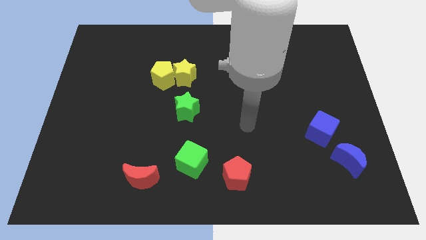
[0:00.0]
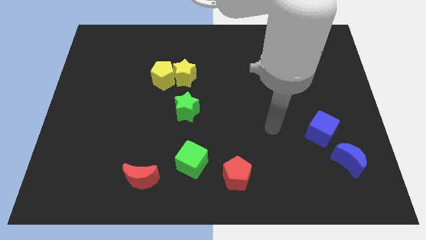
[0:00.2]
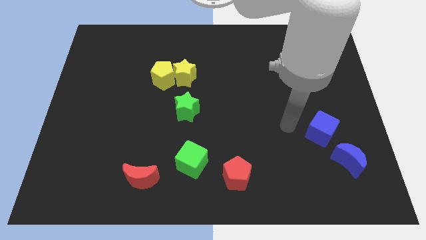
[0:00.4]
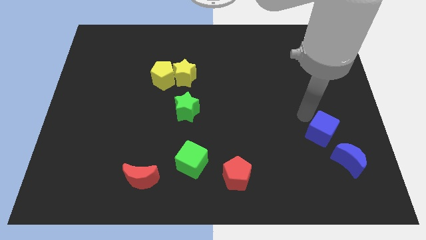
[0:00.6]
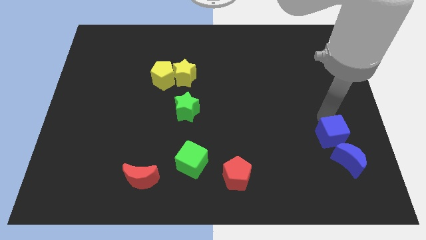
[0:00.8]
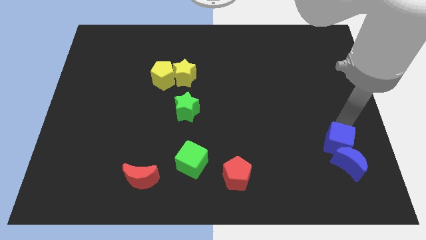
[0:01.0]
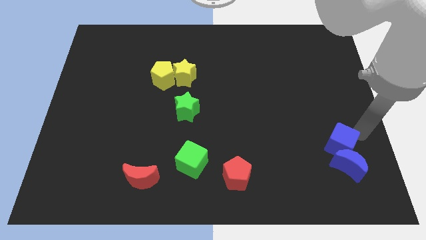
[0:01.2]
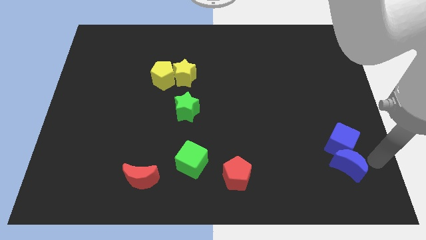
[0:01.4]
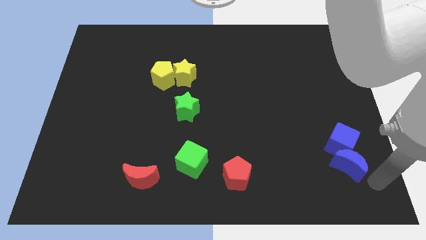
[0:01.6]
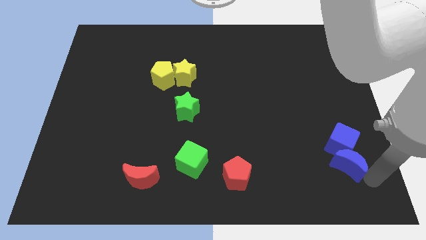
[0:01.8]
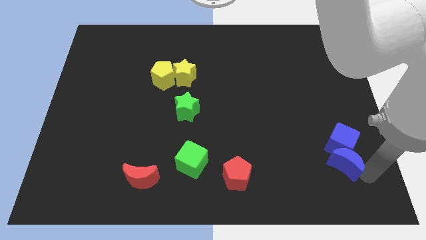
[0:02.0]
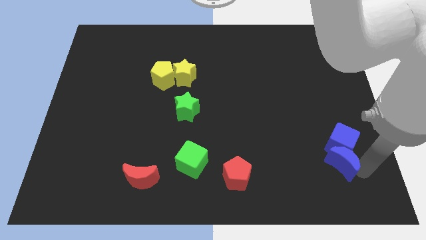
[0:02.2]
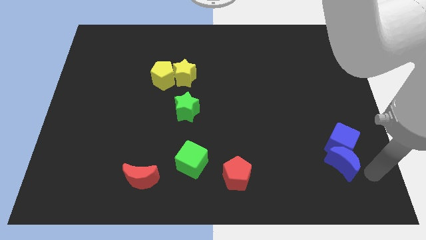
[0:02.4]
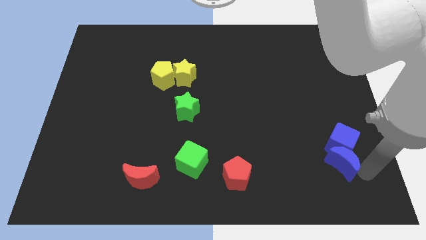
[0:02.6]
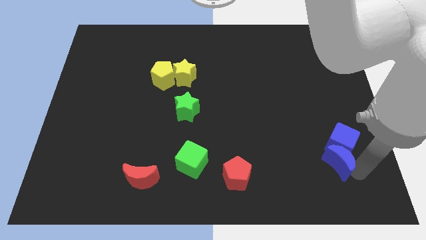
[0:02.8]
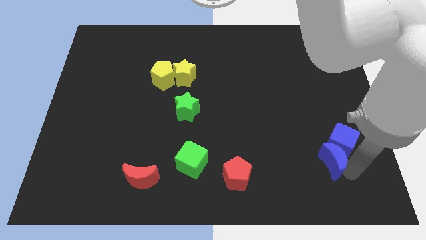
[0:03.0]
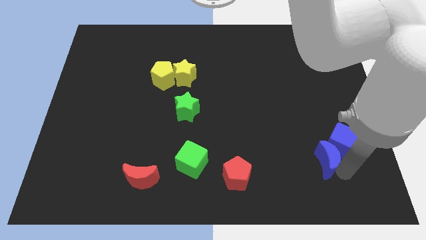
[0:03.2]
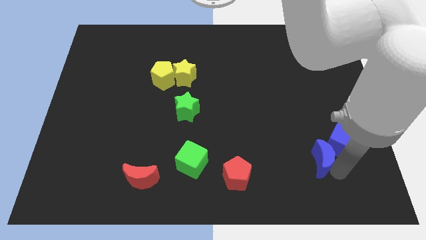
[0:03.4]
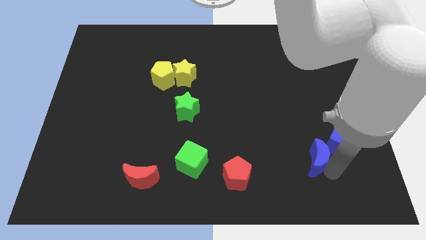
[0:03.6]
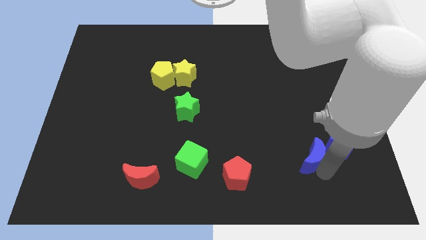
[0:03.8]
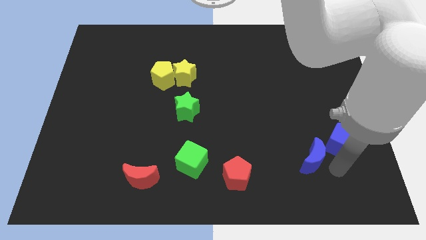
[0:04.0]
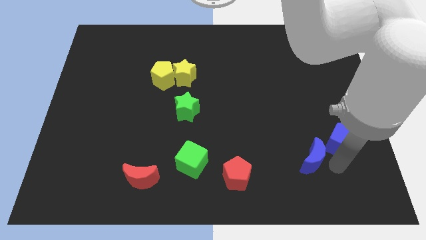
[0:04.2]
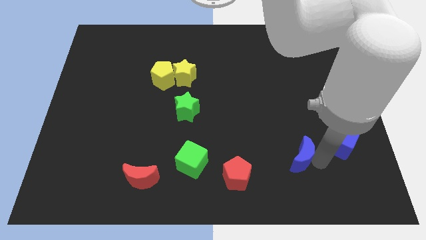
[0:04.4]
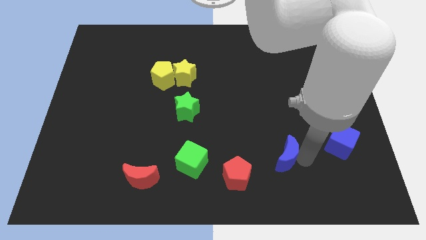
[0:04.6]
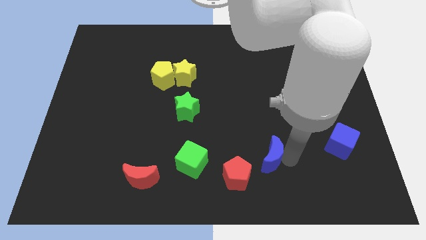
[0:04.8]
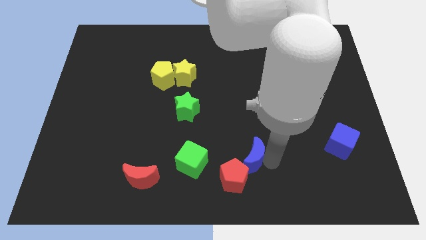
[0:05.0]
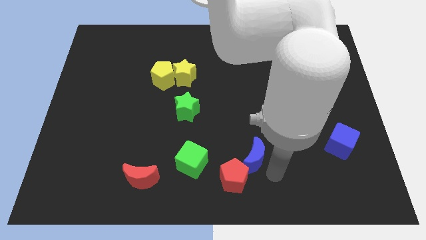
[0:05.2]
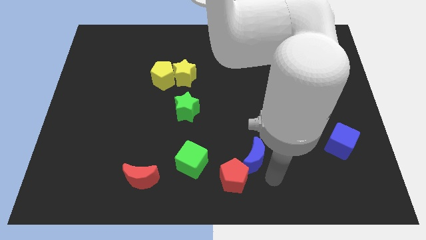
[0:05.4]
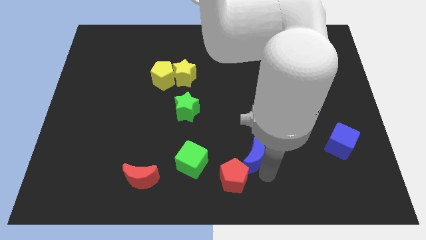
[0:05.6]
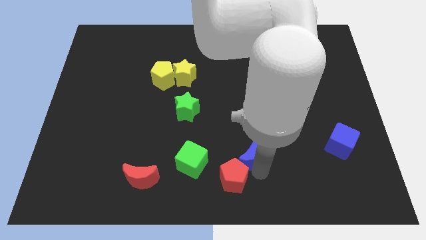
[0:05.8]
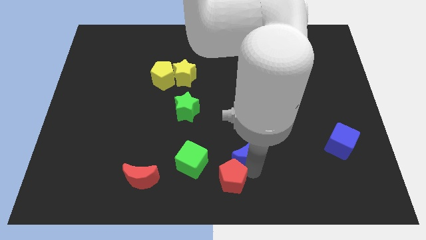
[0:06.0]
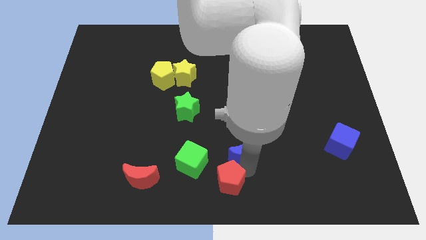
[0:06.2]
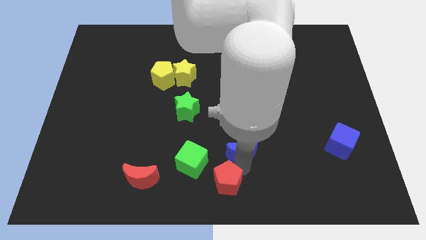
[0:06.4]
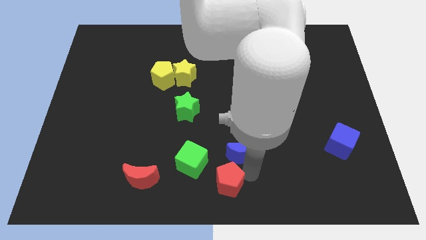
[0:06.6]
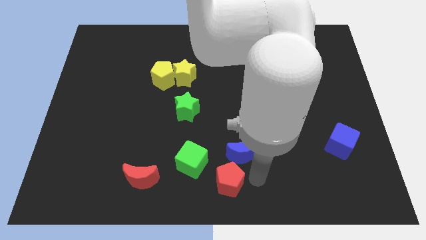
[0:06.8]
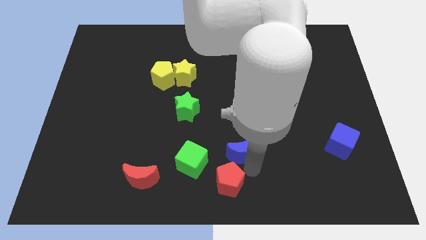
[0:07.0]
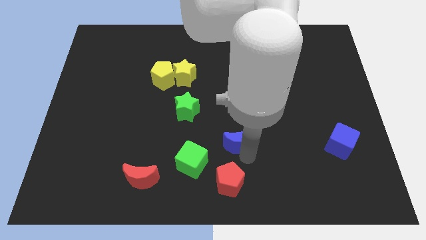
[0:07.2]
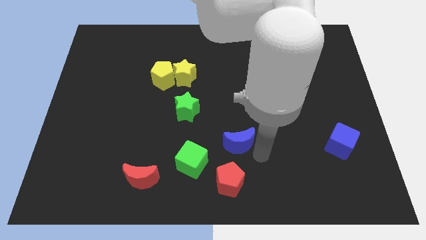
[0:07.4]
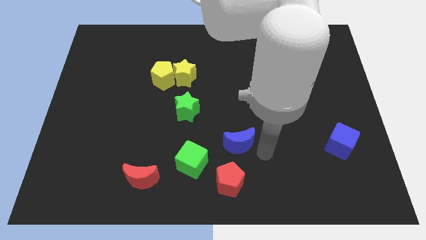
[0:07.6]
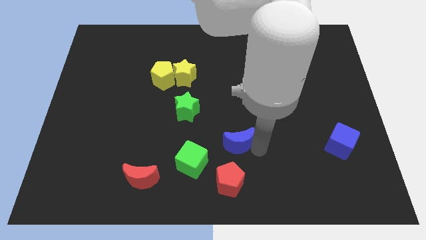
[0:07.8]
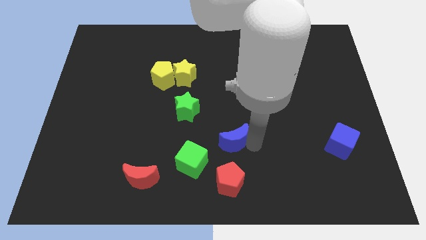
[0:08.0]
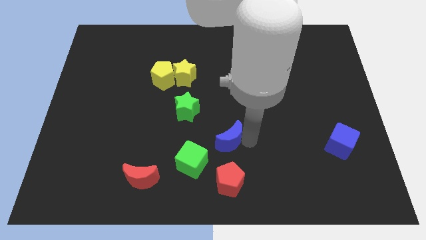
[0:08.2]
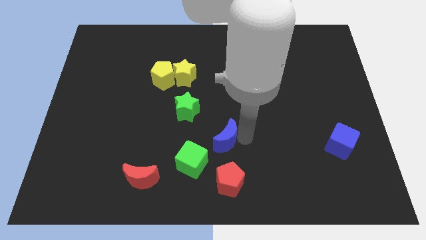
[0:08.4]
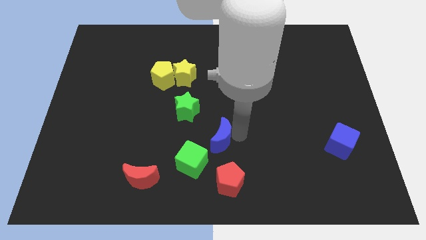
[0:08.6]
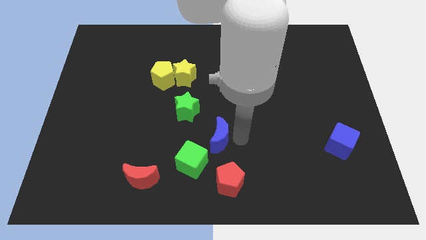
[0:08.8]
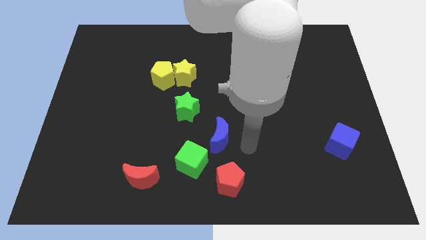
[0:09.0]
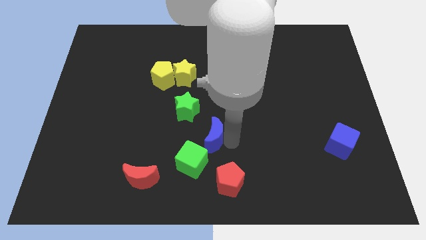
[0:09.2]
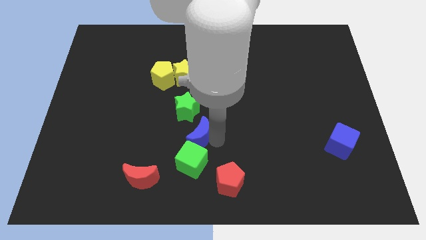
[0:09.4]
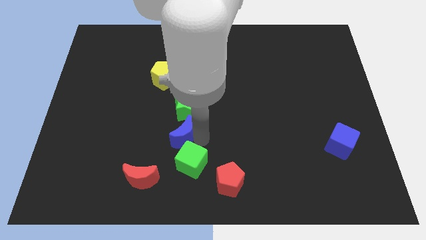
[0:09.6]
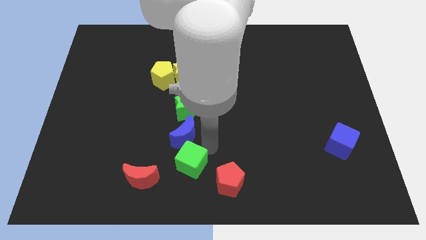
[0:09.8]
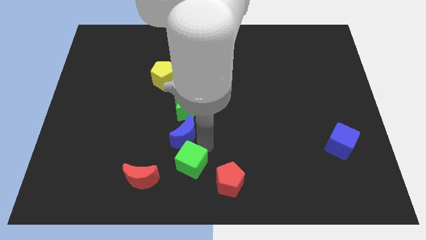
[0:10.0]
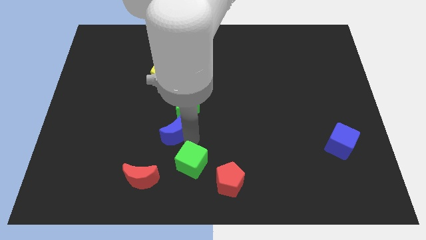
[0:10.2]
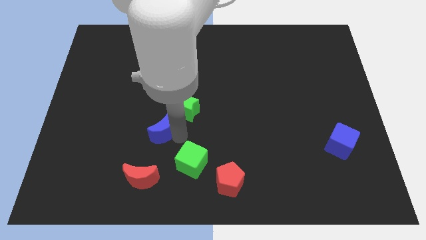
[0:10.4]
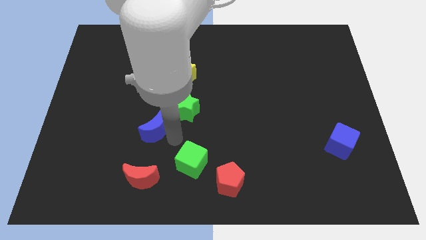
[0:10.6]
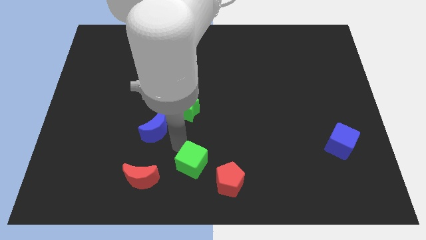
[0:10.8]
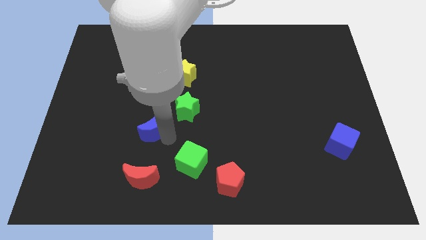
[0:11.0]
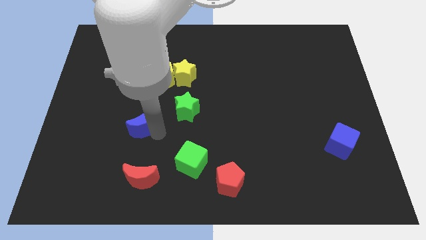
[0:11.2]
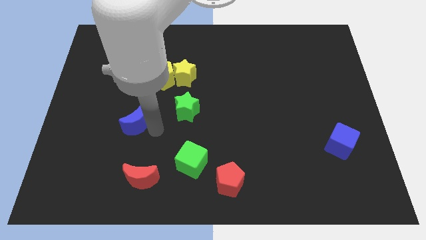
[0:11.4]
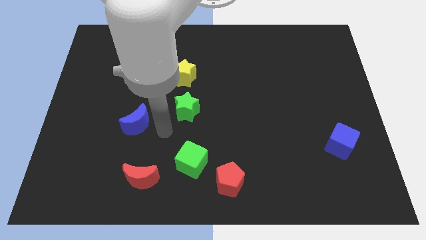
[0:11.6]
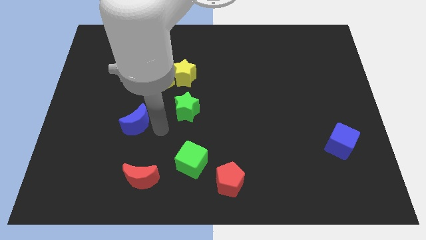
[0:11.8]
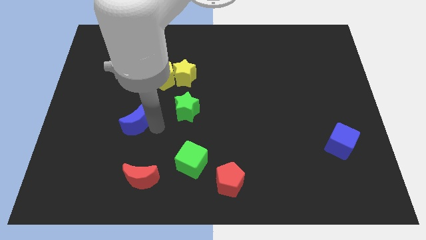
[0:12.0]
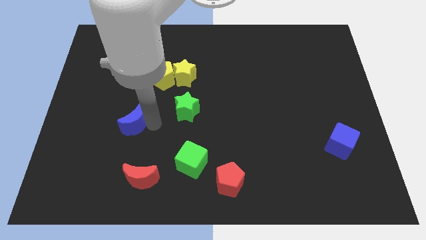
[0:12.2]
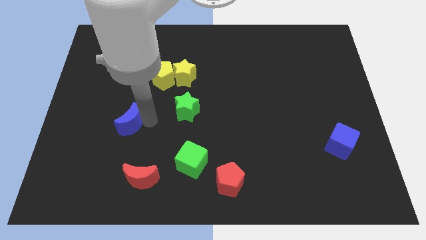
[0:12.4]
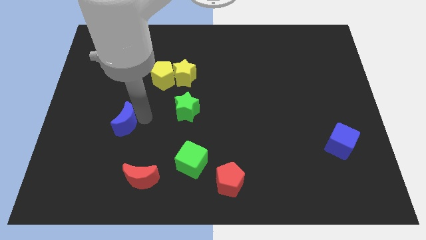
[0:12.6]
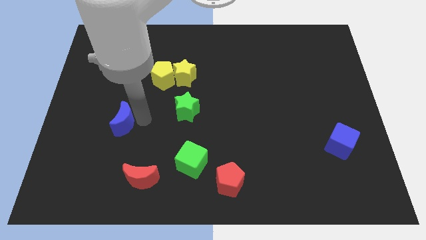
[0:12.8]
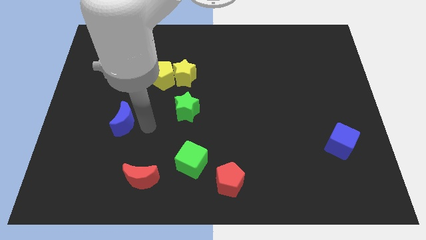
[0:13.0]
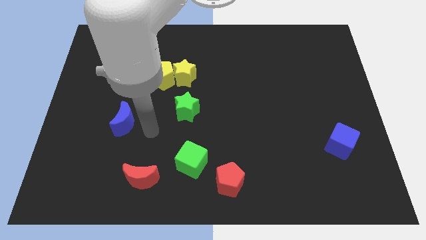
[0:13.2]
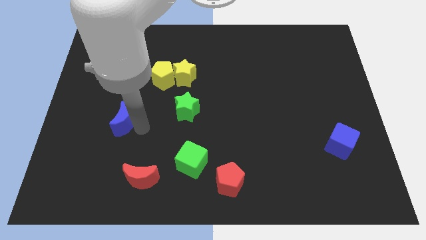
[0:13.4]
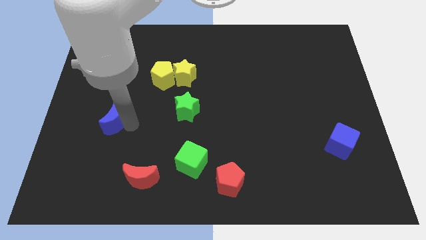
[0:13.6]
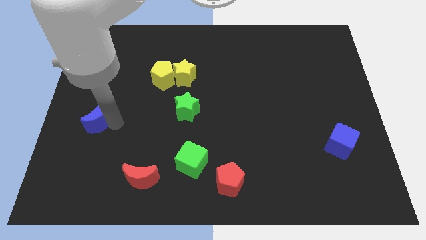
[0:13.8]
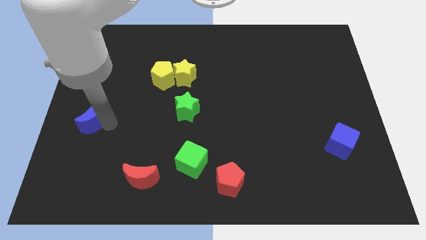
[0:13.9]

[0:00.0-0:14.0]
slide the blue moon to the left side of the board

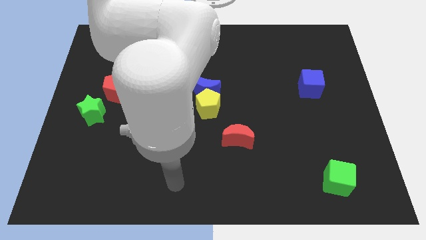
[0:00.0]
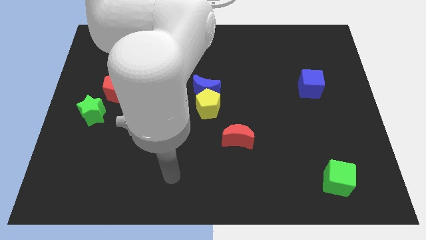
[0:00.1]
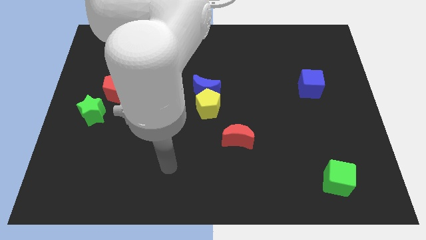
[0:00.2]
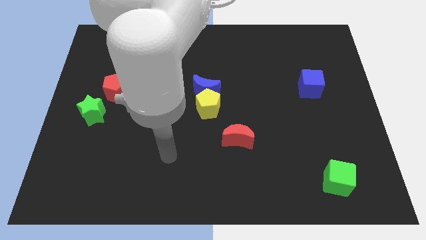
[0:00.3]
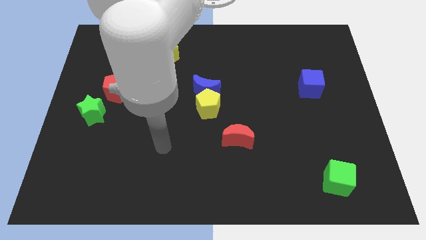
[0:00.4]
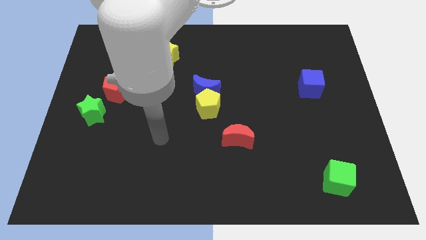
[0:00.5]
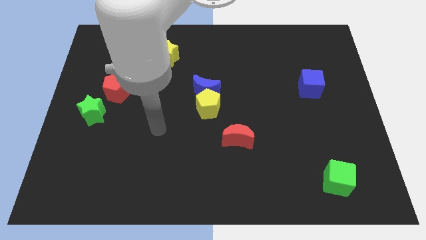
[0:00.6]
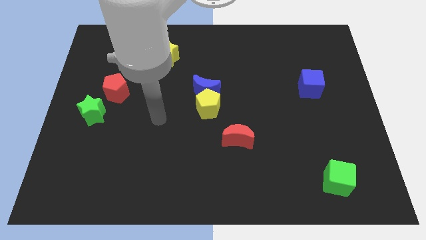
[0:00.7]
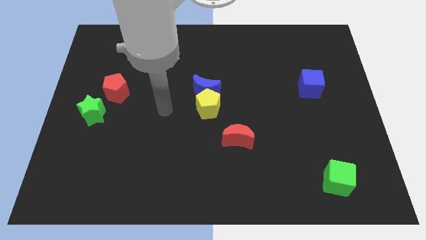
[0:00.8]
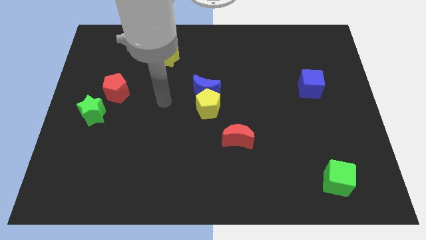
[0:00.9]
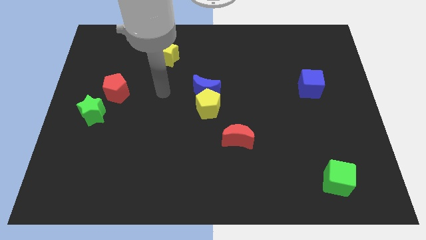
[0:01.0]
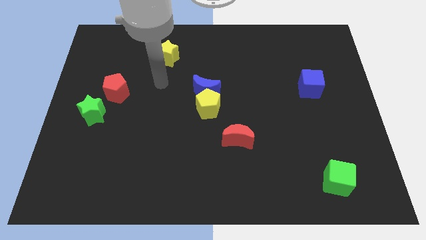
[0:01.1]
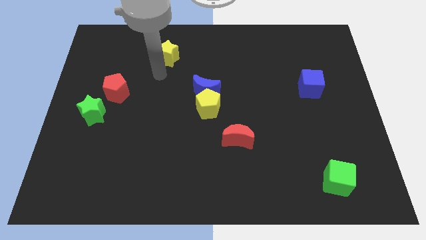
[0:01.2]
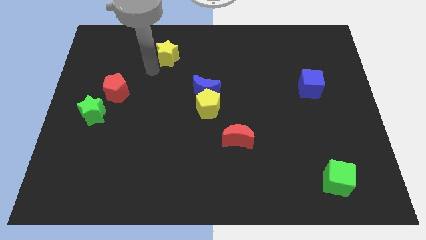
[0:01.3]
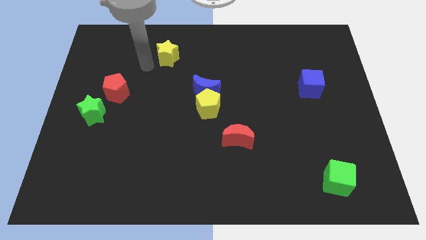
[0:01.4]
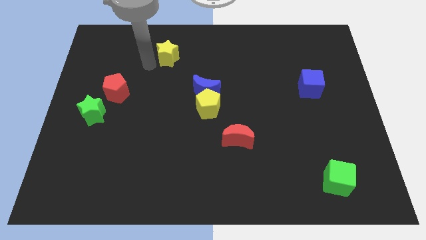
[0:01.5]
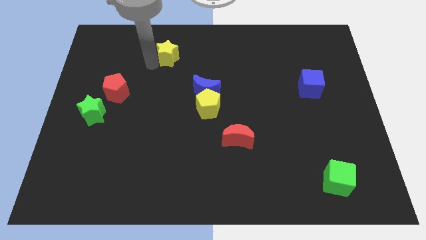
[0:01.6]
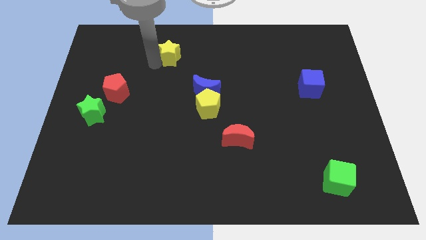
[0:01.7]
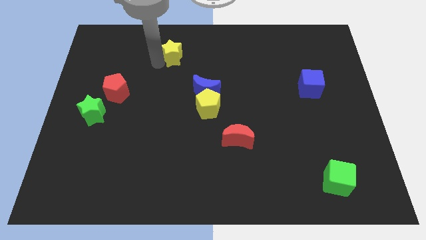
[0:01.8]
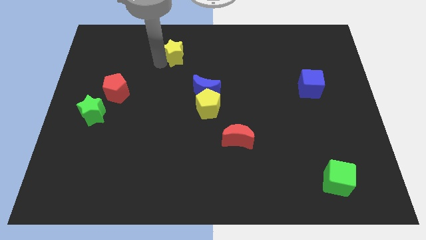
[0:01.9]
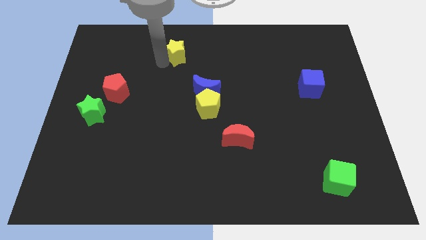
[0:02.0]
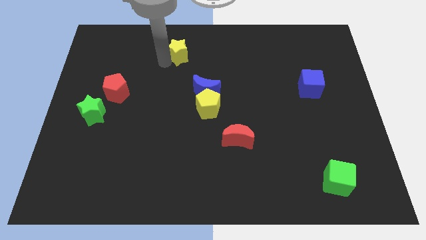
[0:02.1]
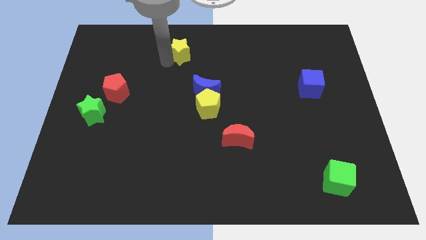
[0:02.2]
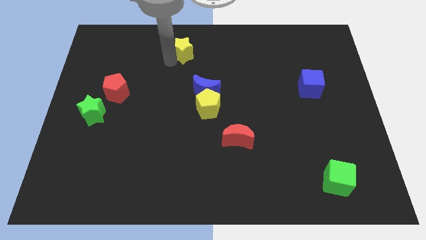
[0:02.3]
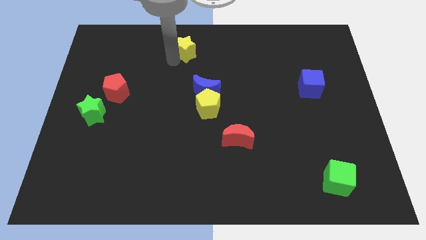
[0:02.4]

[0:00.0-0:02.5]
slide the yellow star to the towards your base
